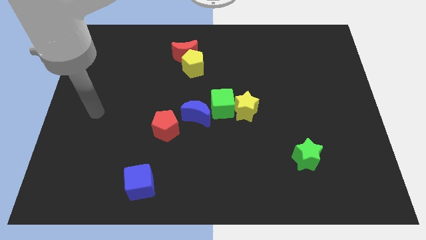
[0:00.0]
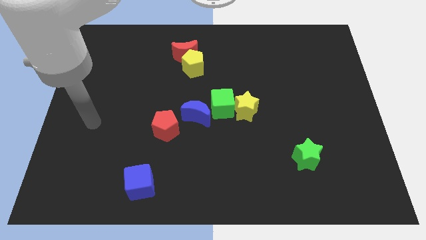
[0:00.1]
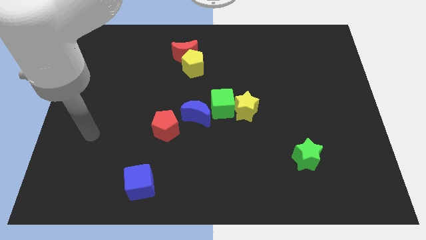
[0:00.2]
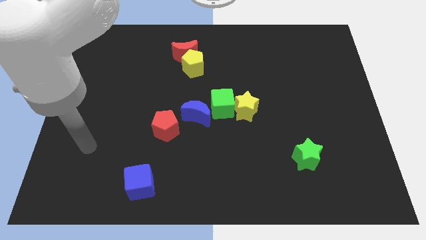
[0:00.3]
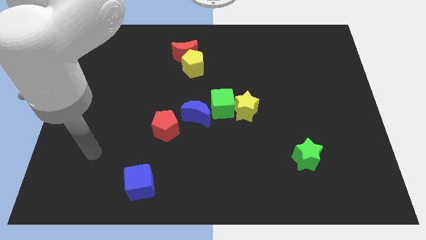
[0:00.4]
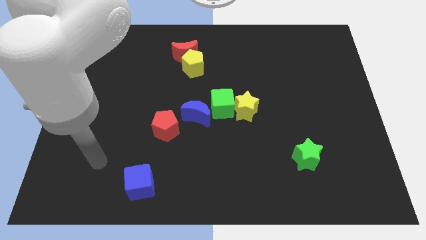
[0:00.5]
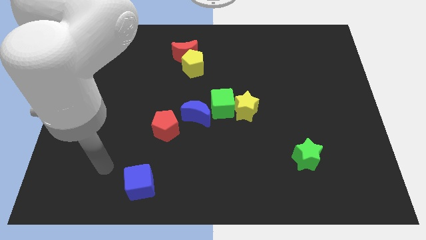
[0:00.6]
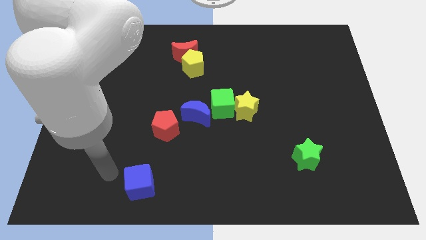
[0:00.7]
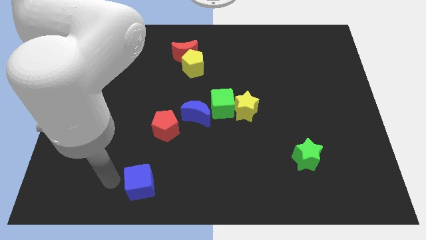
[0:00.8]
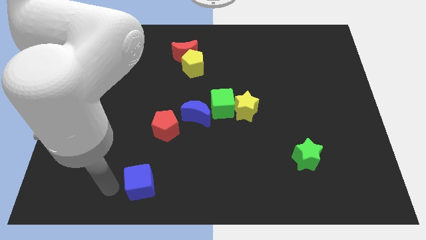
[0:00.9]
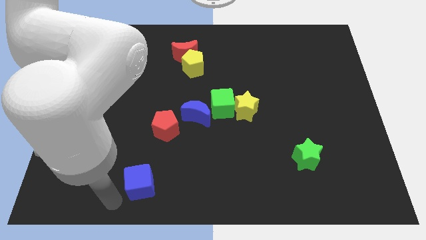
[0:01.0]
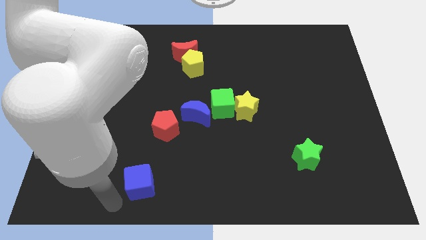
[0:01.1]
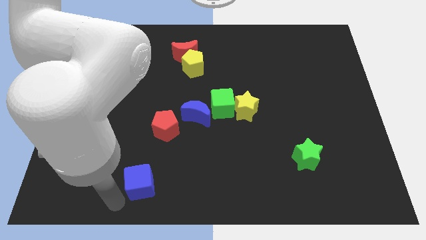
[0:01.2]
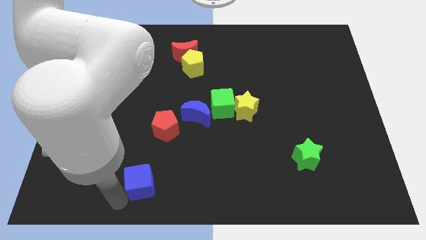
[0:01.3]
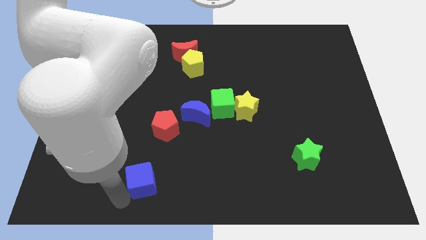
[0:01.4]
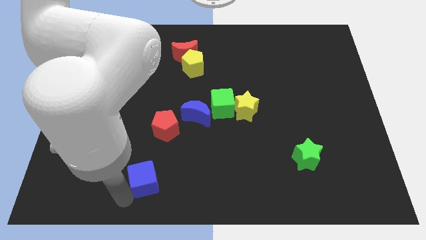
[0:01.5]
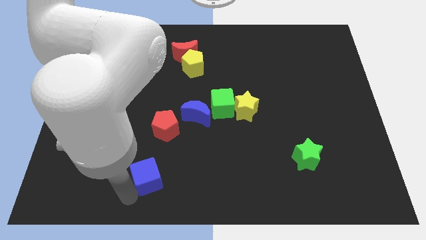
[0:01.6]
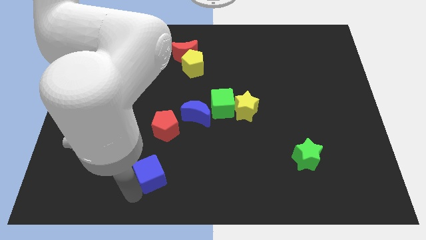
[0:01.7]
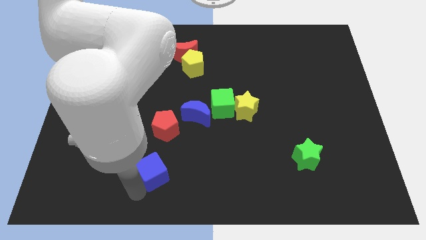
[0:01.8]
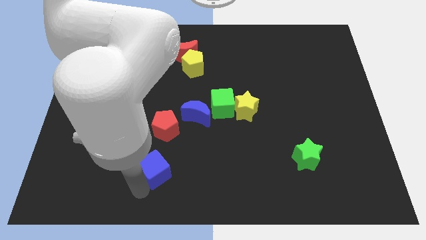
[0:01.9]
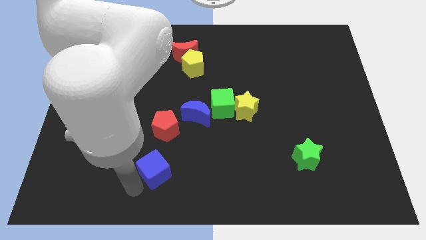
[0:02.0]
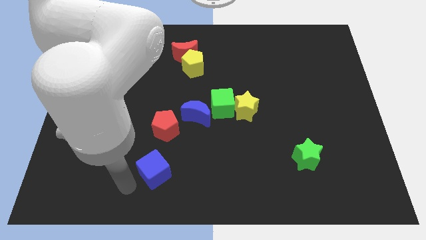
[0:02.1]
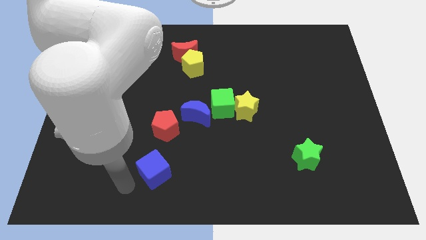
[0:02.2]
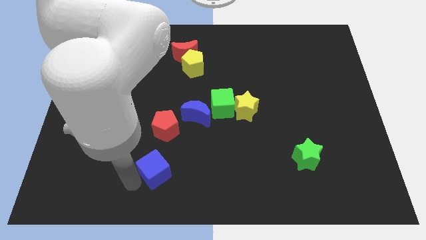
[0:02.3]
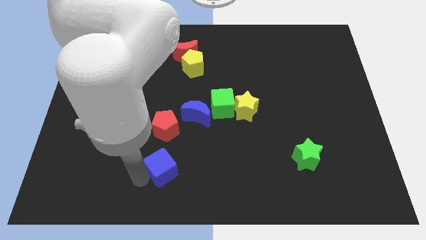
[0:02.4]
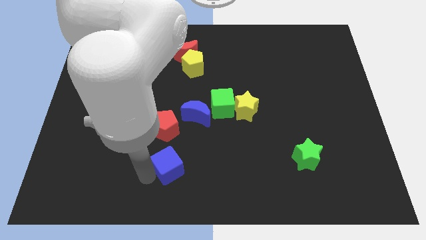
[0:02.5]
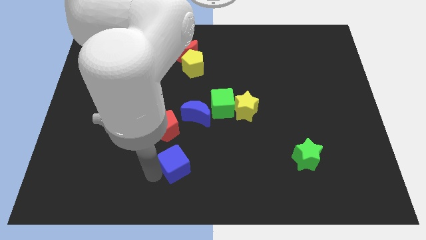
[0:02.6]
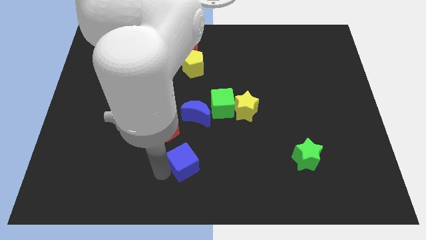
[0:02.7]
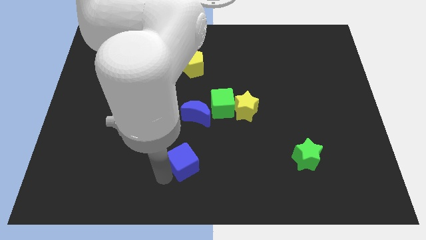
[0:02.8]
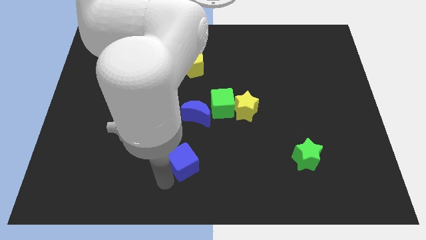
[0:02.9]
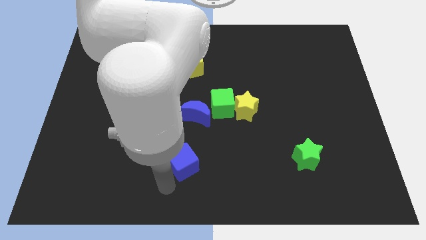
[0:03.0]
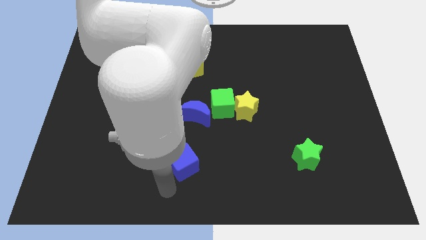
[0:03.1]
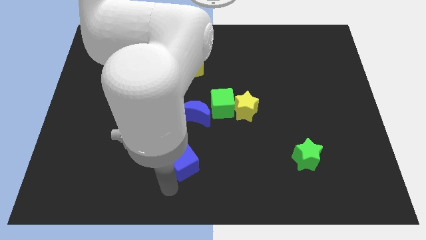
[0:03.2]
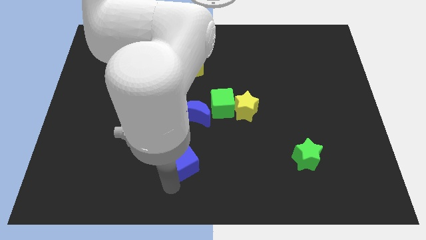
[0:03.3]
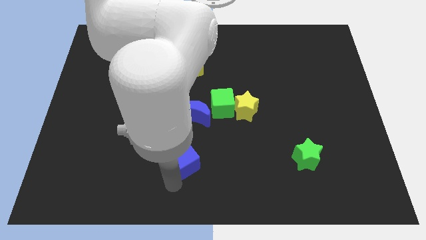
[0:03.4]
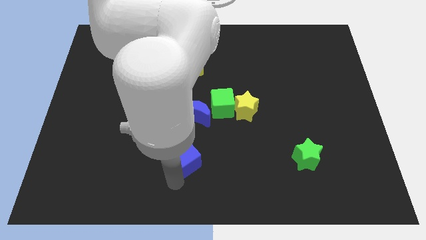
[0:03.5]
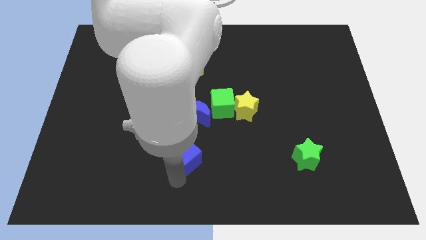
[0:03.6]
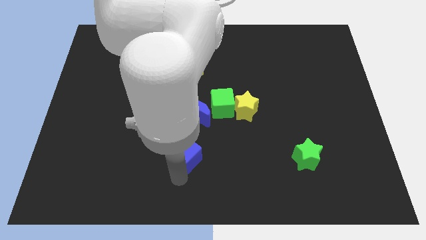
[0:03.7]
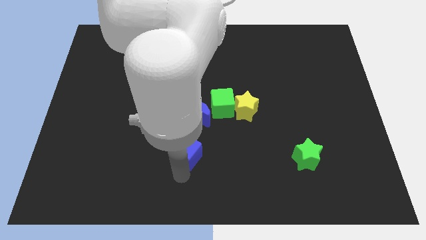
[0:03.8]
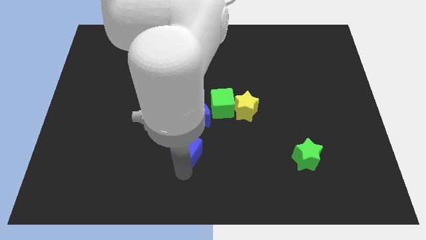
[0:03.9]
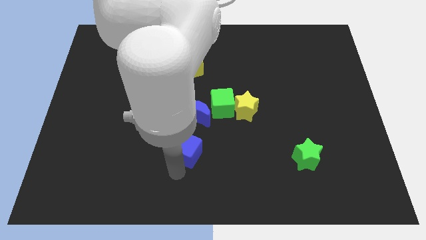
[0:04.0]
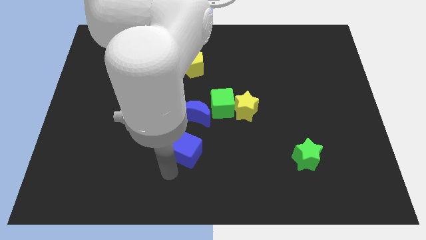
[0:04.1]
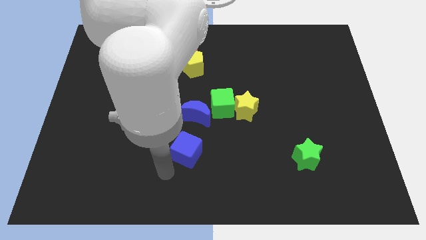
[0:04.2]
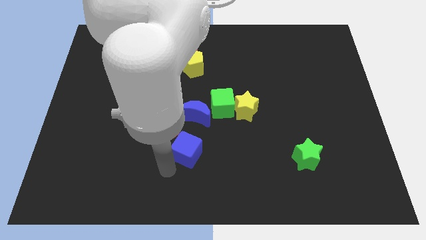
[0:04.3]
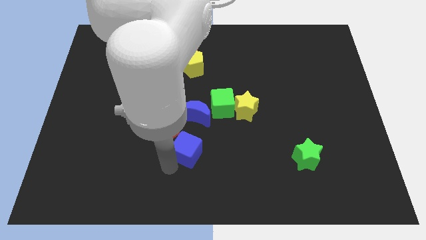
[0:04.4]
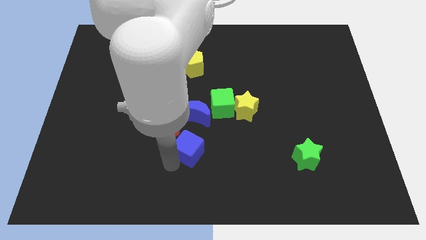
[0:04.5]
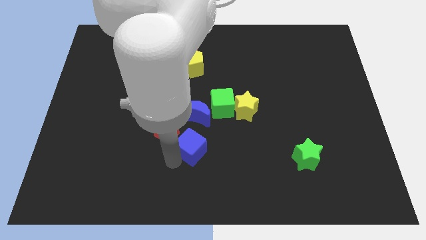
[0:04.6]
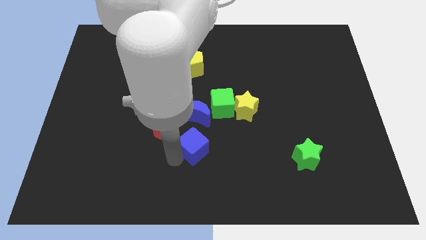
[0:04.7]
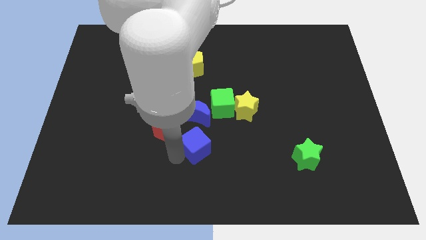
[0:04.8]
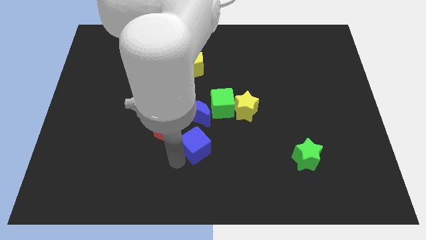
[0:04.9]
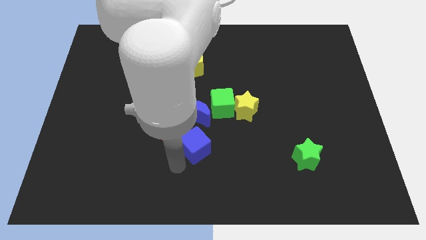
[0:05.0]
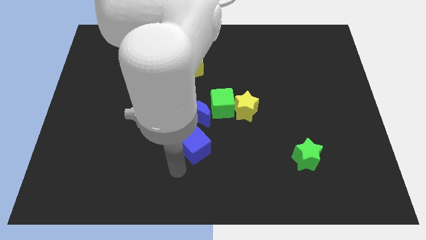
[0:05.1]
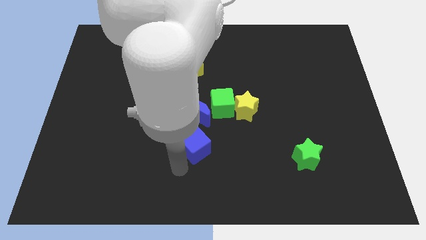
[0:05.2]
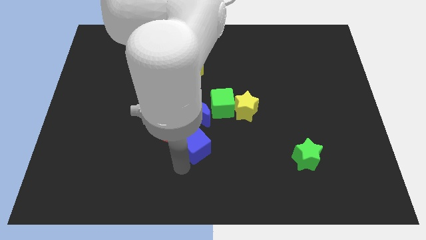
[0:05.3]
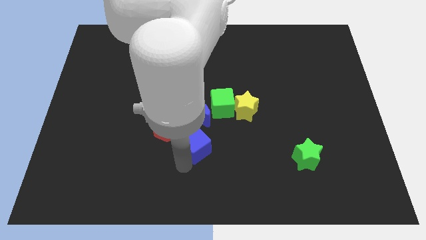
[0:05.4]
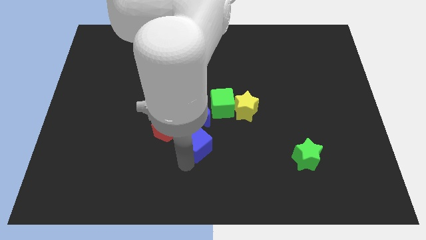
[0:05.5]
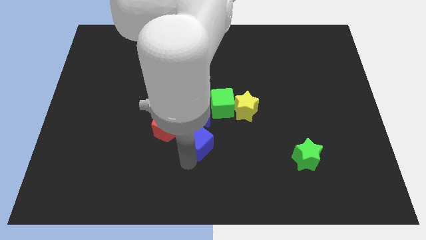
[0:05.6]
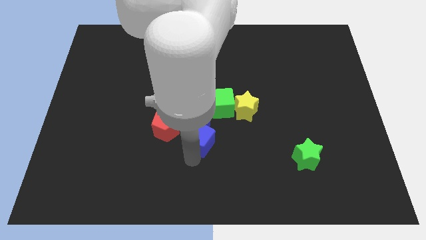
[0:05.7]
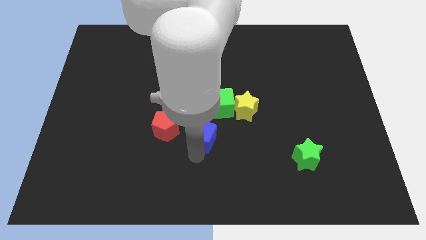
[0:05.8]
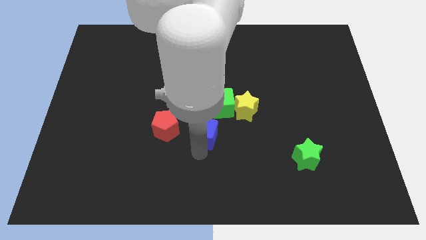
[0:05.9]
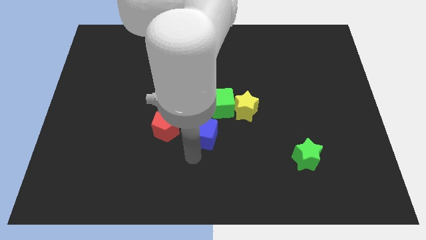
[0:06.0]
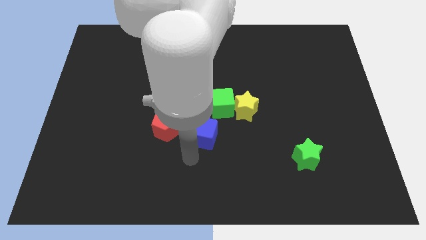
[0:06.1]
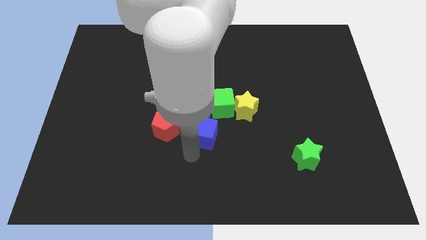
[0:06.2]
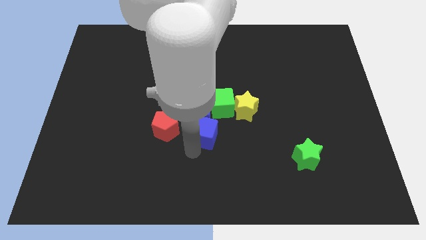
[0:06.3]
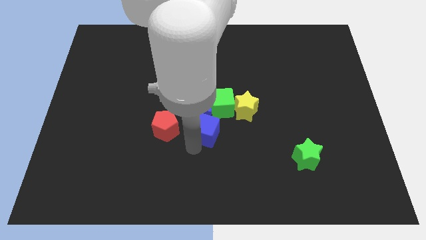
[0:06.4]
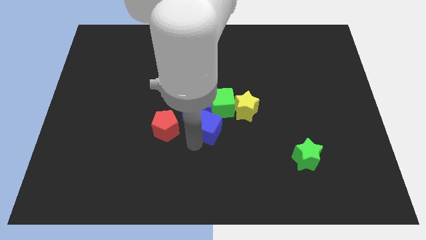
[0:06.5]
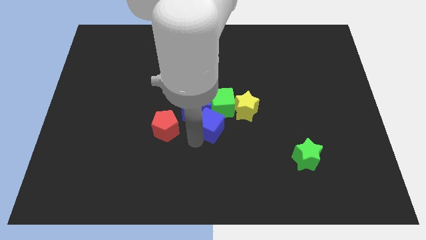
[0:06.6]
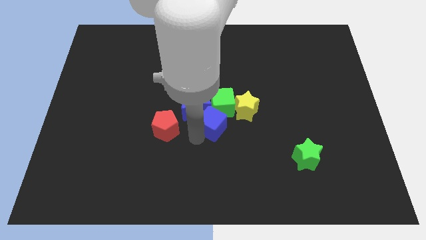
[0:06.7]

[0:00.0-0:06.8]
push the blue cube towards the green cube

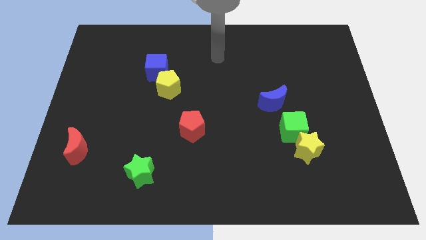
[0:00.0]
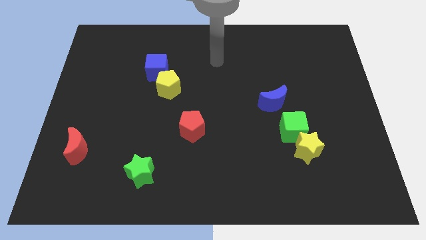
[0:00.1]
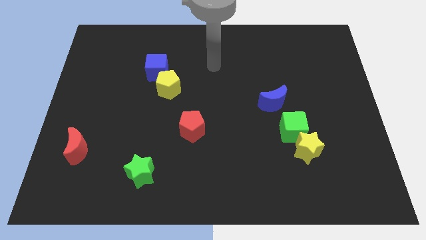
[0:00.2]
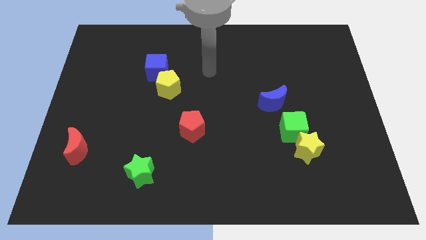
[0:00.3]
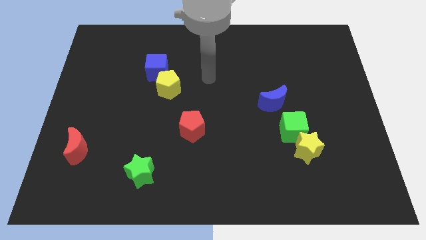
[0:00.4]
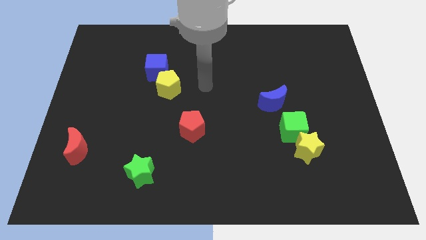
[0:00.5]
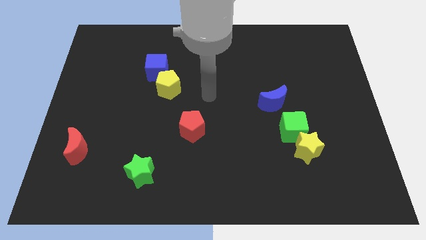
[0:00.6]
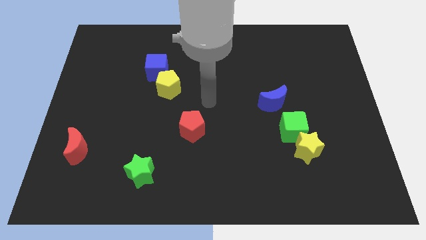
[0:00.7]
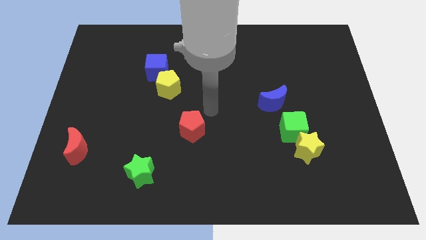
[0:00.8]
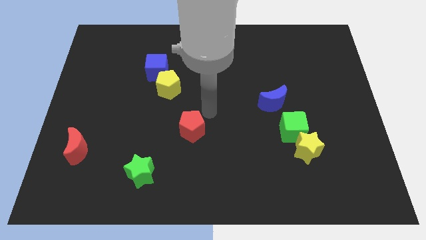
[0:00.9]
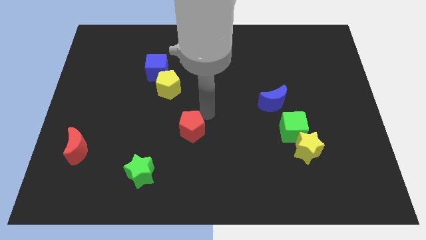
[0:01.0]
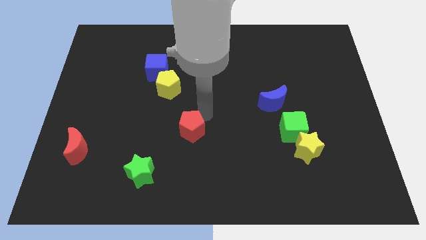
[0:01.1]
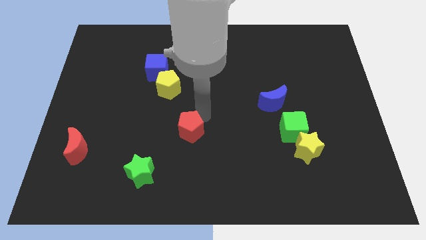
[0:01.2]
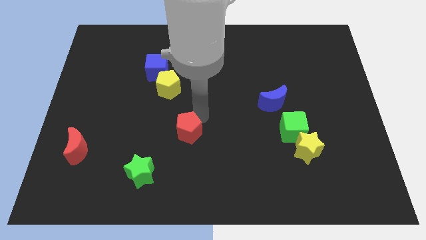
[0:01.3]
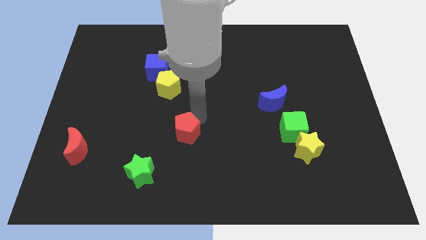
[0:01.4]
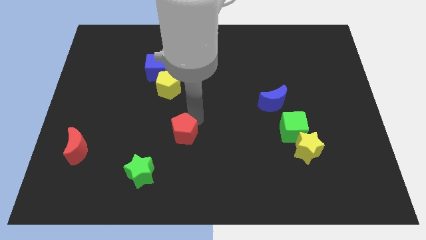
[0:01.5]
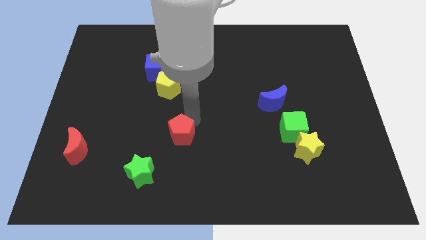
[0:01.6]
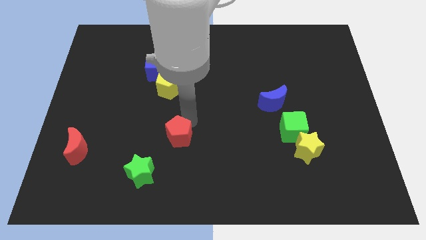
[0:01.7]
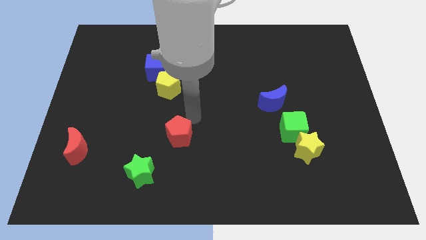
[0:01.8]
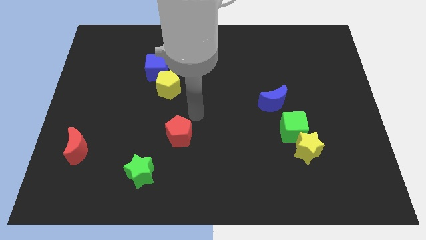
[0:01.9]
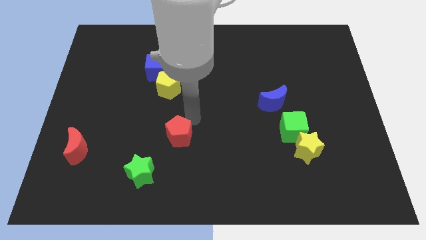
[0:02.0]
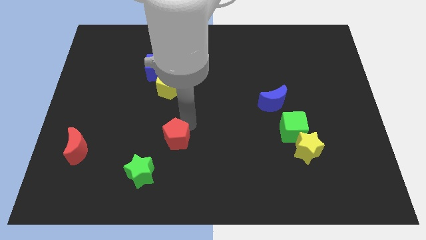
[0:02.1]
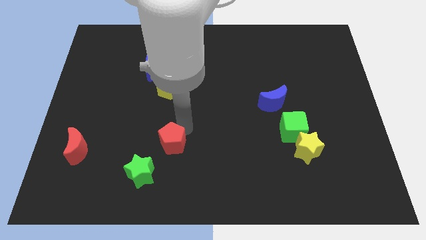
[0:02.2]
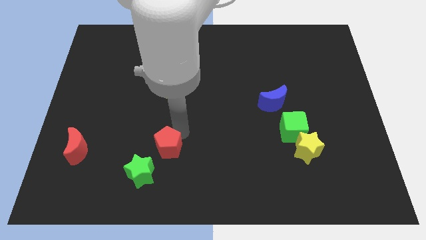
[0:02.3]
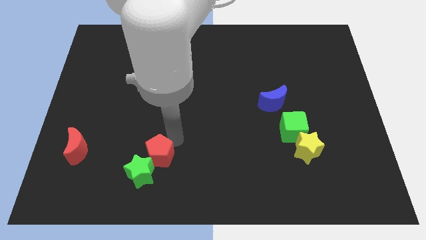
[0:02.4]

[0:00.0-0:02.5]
slide the red pentagon towards the green star
